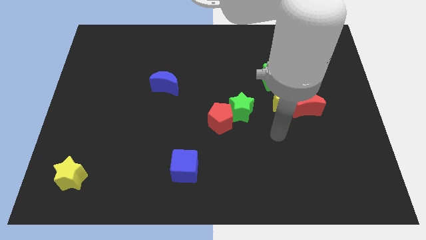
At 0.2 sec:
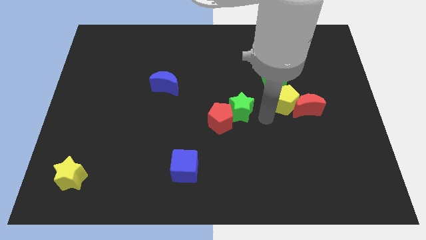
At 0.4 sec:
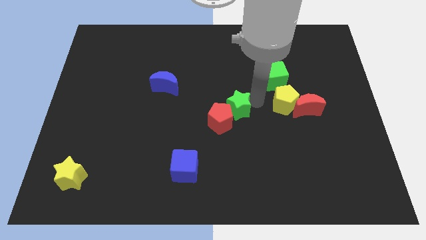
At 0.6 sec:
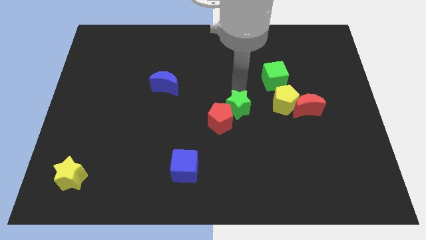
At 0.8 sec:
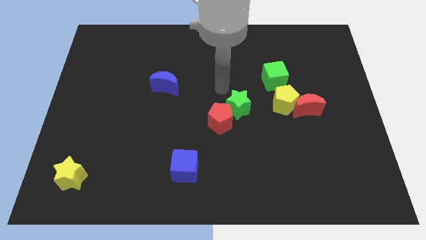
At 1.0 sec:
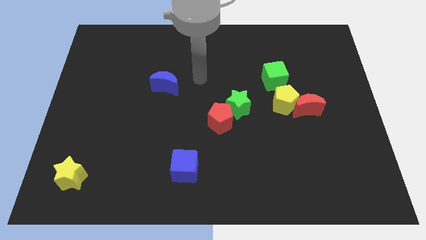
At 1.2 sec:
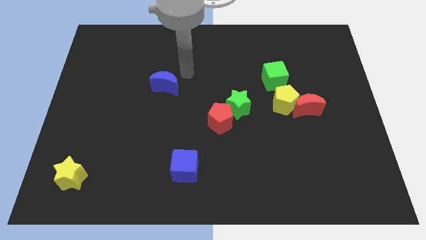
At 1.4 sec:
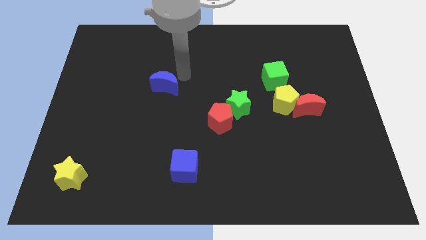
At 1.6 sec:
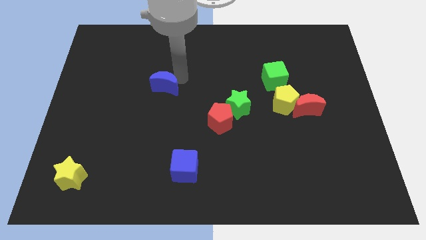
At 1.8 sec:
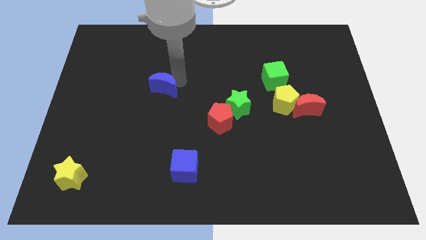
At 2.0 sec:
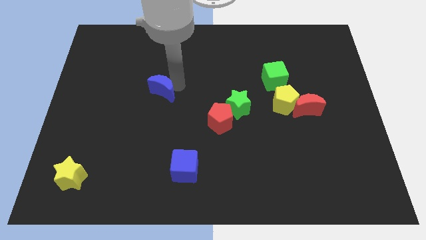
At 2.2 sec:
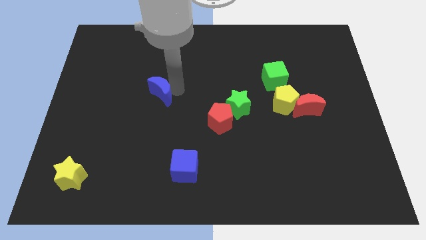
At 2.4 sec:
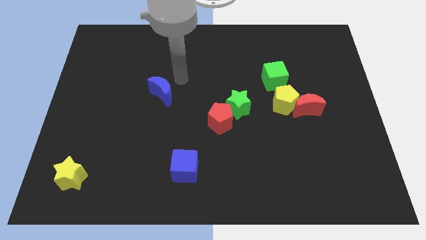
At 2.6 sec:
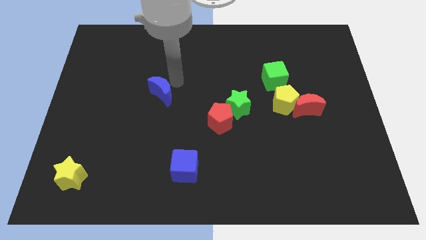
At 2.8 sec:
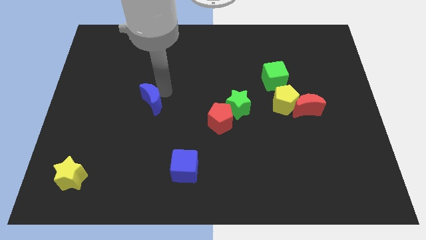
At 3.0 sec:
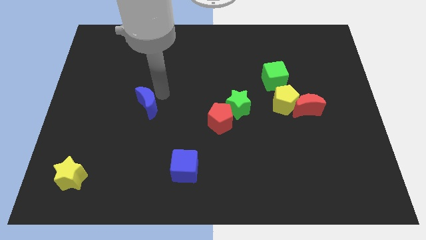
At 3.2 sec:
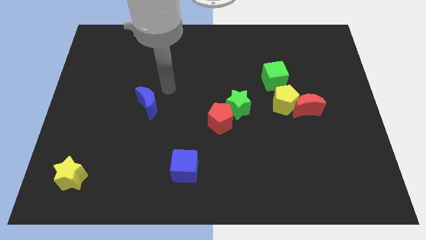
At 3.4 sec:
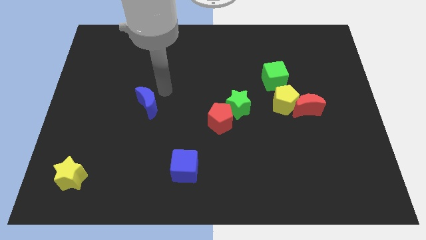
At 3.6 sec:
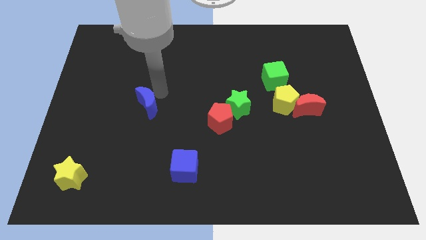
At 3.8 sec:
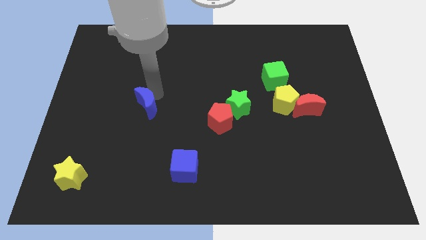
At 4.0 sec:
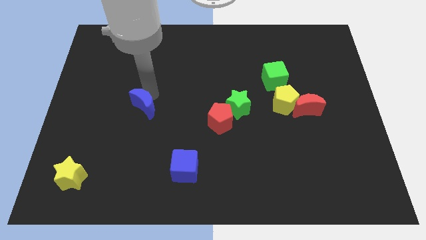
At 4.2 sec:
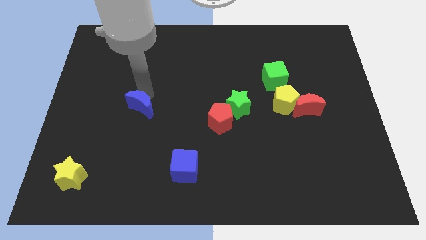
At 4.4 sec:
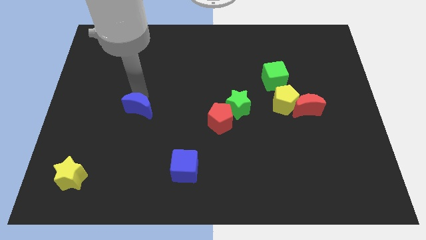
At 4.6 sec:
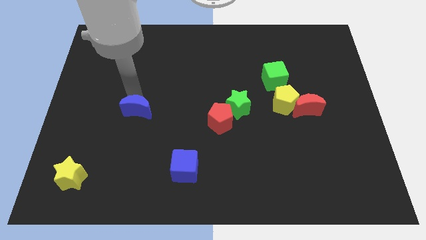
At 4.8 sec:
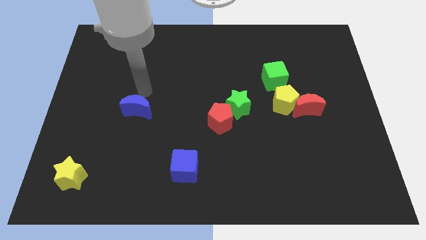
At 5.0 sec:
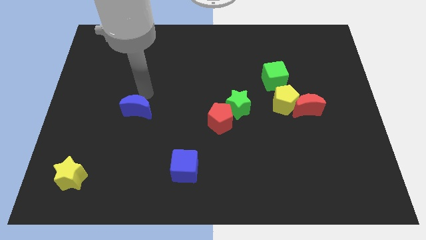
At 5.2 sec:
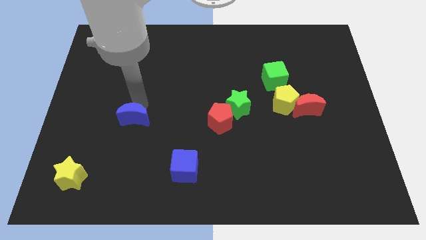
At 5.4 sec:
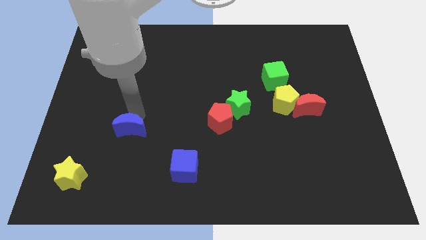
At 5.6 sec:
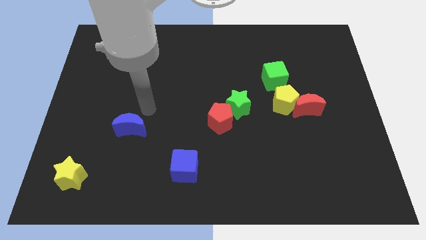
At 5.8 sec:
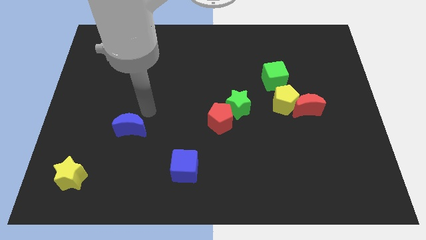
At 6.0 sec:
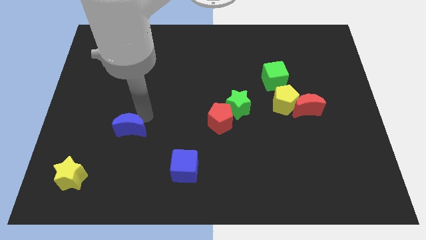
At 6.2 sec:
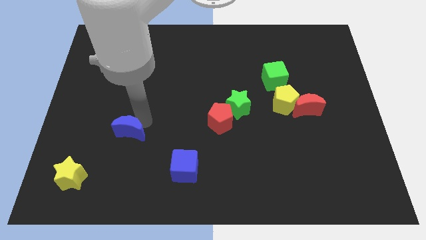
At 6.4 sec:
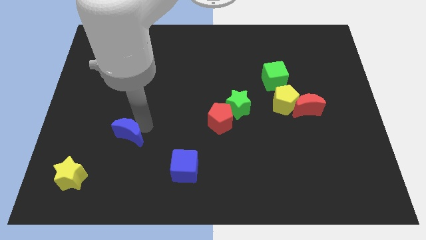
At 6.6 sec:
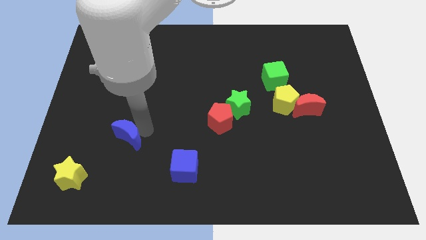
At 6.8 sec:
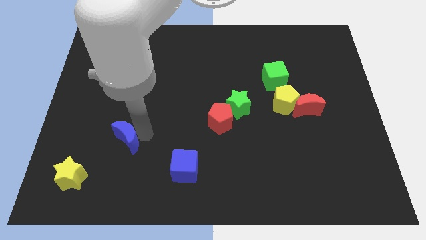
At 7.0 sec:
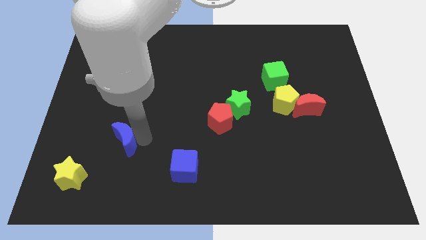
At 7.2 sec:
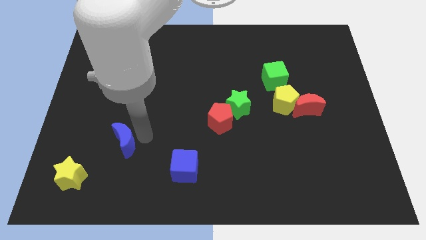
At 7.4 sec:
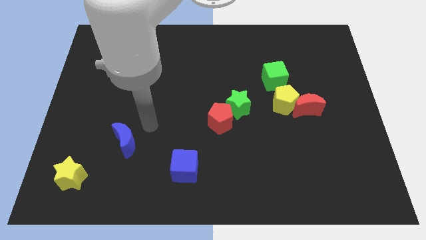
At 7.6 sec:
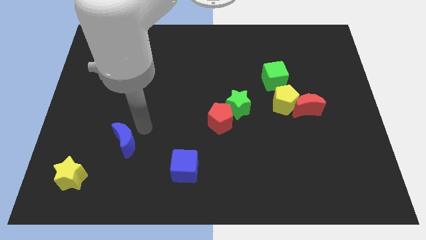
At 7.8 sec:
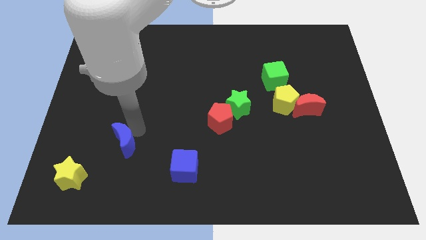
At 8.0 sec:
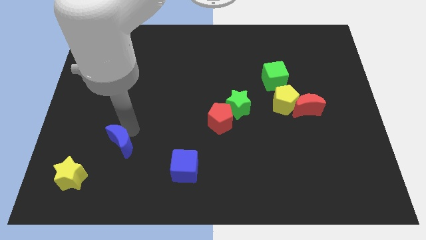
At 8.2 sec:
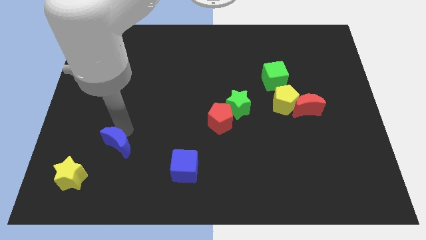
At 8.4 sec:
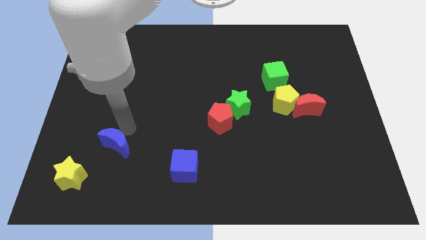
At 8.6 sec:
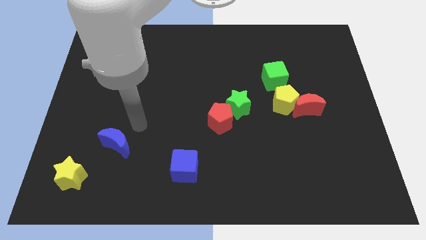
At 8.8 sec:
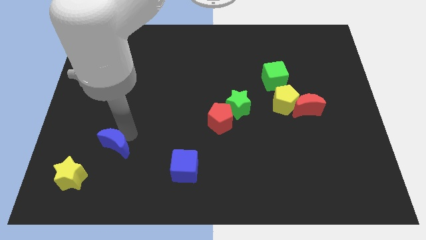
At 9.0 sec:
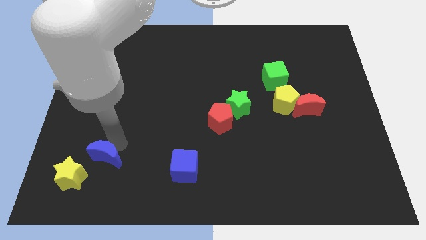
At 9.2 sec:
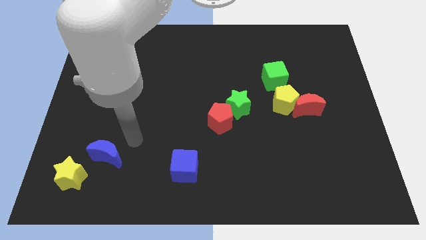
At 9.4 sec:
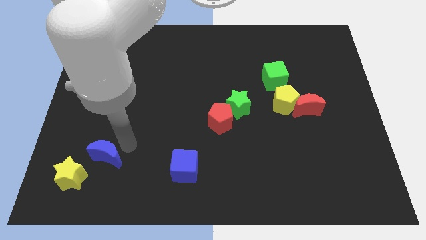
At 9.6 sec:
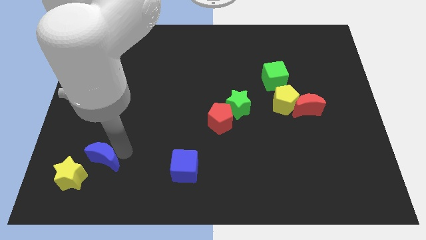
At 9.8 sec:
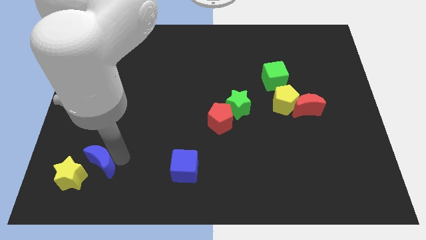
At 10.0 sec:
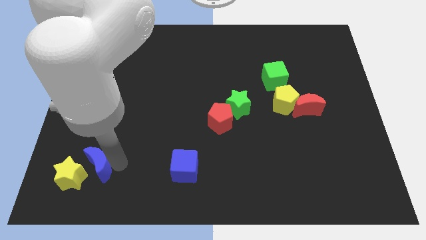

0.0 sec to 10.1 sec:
put the blue moon to the yellow star

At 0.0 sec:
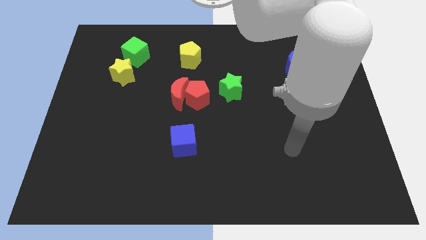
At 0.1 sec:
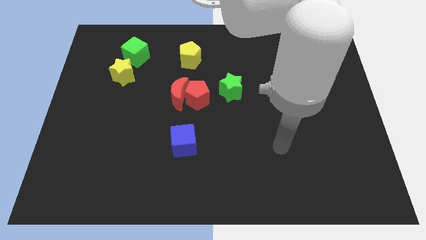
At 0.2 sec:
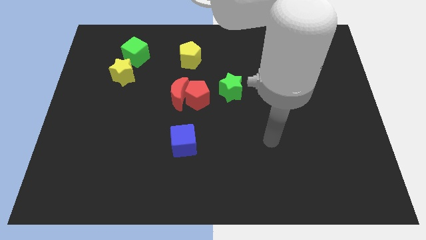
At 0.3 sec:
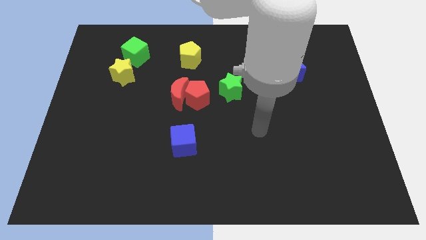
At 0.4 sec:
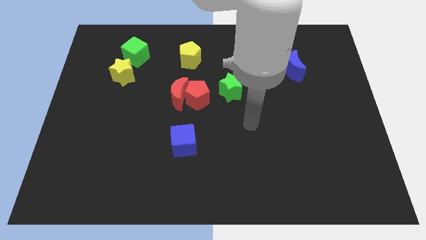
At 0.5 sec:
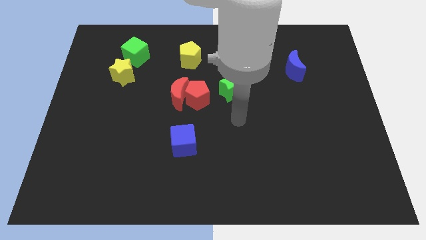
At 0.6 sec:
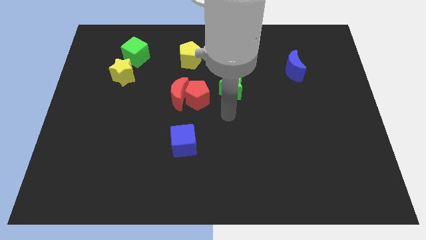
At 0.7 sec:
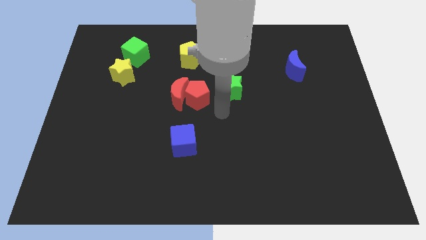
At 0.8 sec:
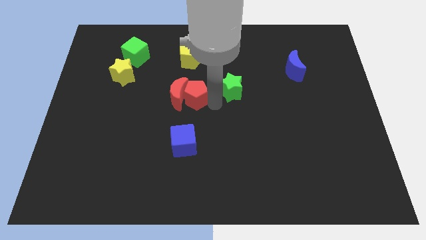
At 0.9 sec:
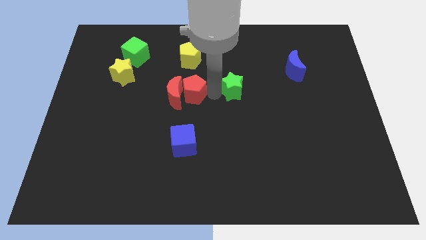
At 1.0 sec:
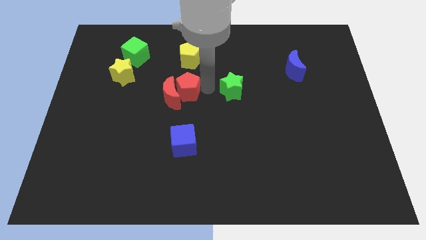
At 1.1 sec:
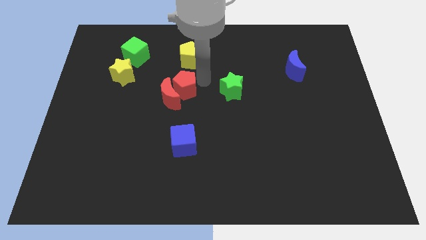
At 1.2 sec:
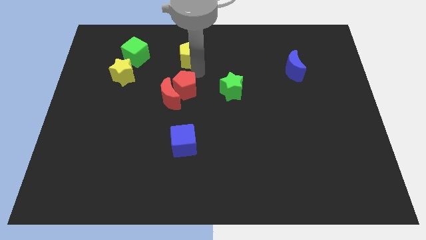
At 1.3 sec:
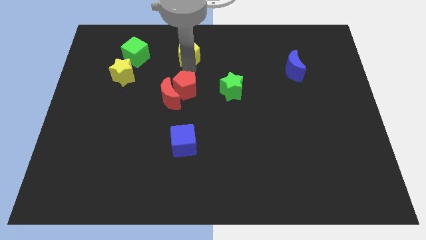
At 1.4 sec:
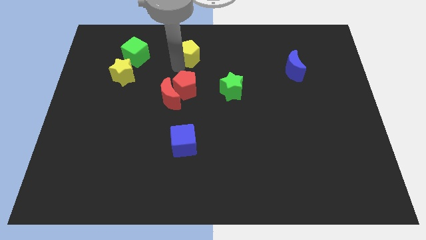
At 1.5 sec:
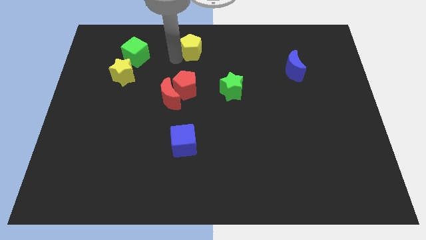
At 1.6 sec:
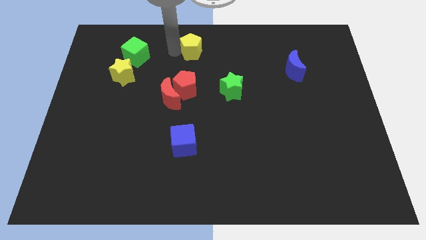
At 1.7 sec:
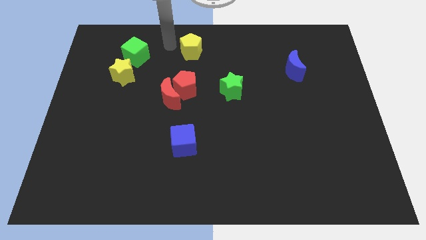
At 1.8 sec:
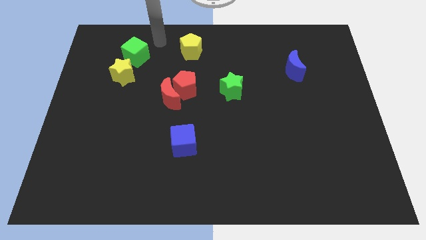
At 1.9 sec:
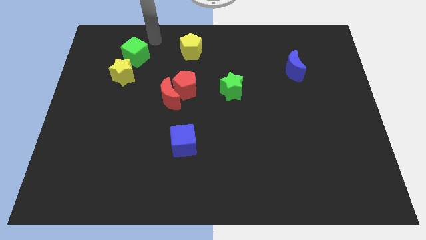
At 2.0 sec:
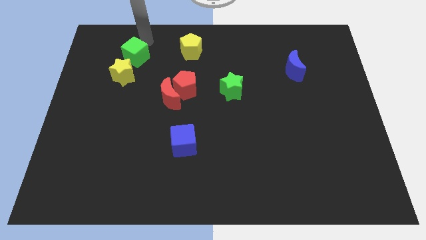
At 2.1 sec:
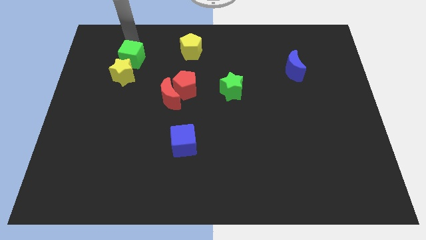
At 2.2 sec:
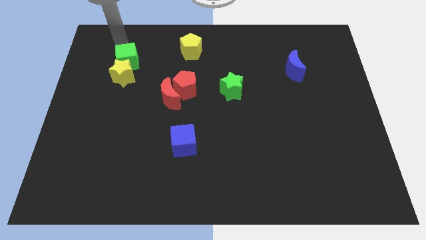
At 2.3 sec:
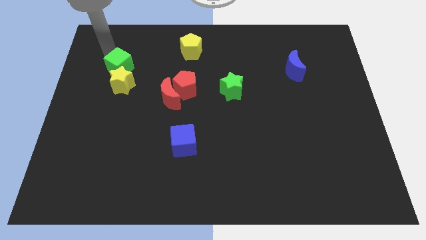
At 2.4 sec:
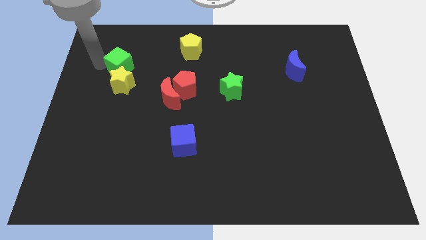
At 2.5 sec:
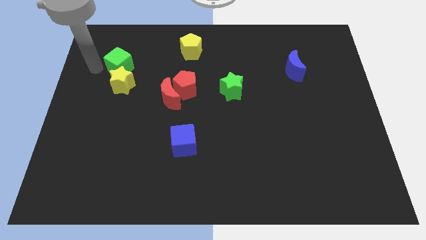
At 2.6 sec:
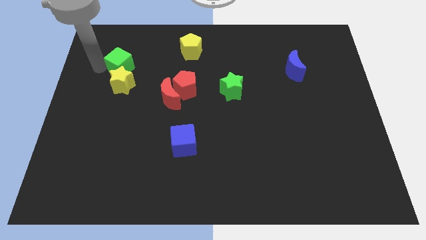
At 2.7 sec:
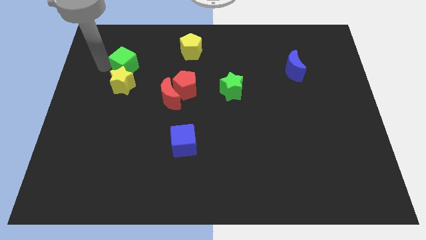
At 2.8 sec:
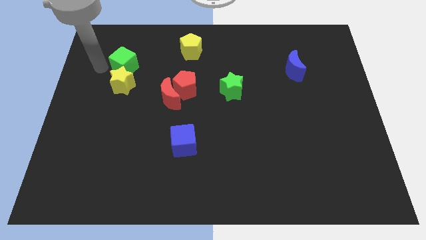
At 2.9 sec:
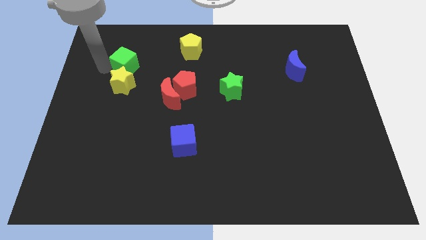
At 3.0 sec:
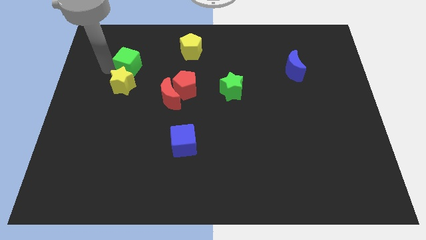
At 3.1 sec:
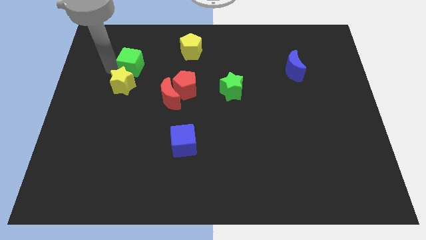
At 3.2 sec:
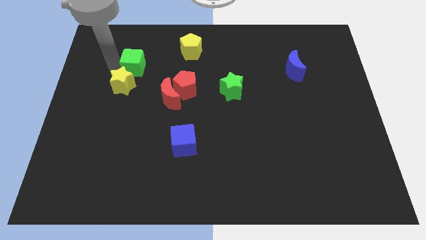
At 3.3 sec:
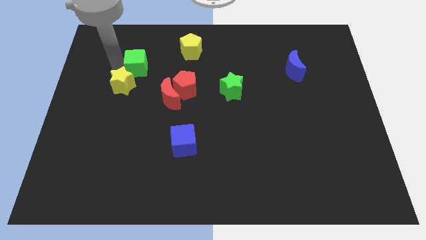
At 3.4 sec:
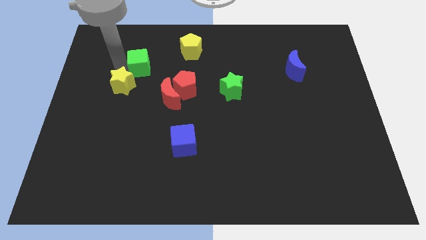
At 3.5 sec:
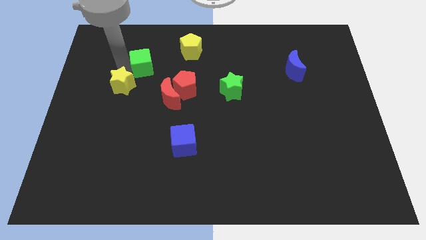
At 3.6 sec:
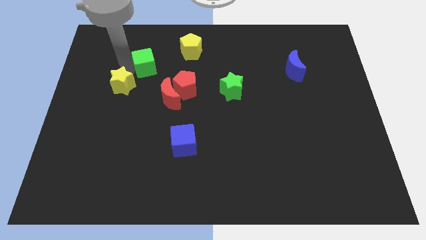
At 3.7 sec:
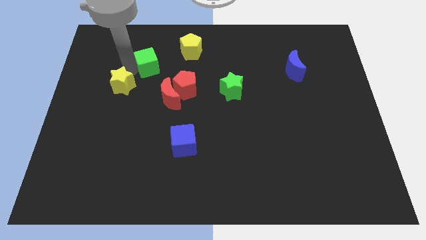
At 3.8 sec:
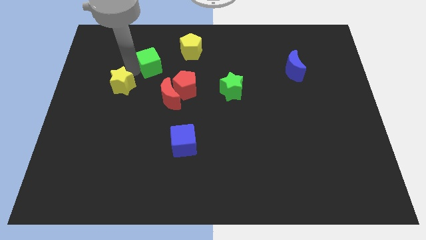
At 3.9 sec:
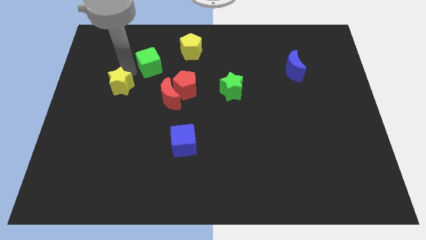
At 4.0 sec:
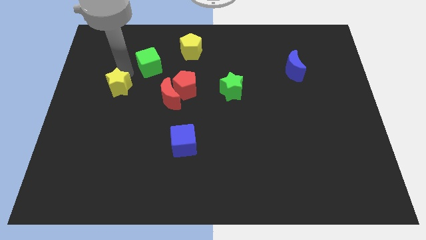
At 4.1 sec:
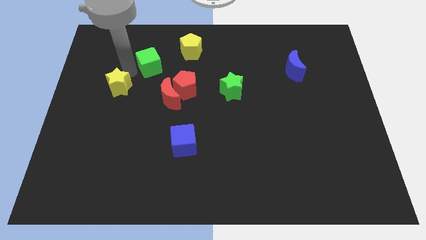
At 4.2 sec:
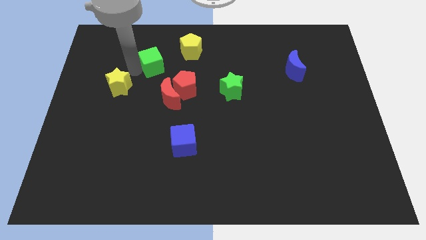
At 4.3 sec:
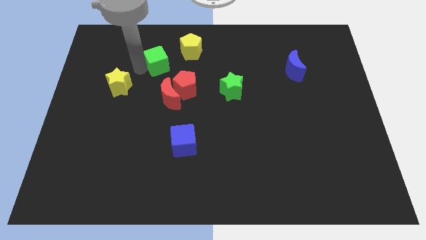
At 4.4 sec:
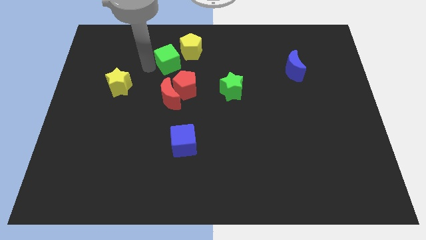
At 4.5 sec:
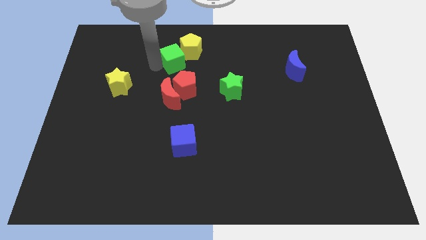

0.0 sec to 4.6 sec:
push the green cube close to the yellow pentagon
